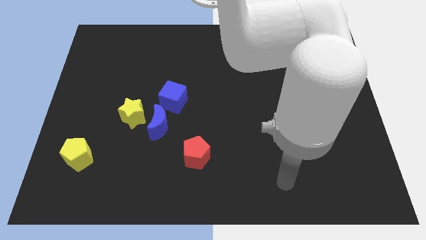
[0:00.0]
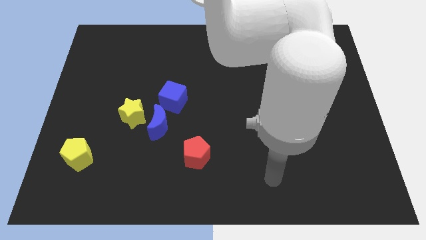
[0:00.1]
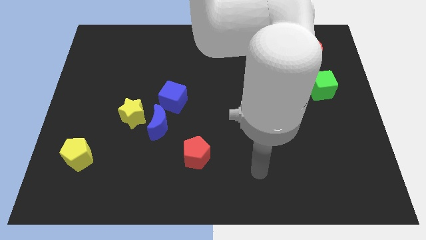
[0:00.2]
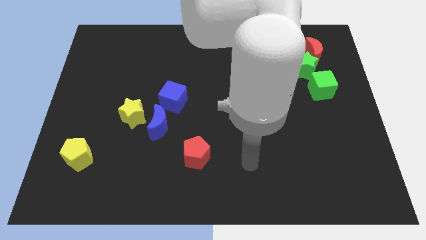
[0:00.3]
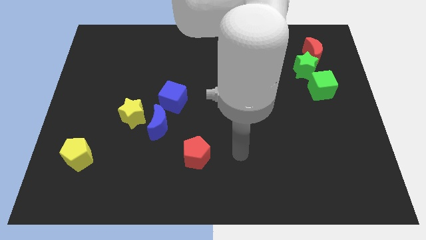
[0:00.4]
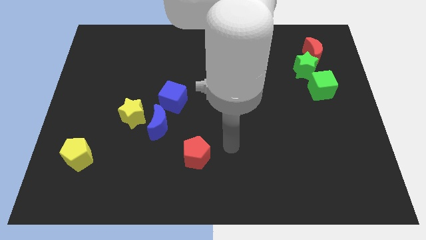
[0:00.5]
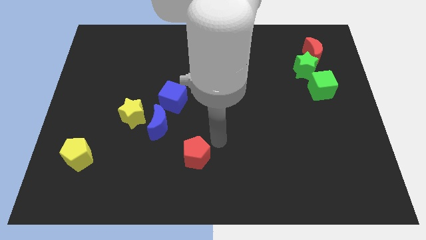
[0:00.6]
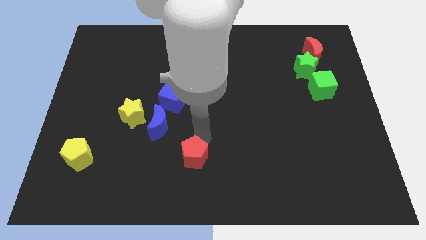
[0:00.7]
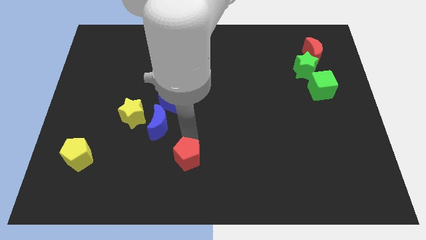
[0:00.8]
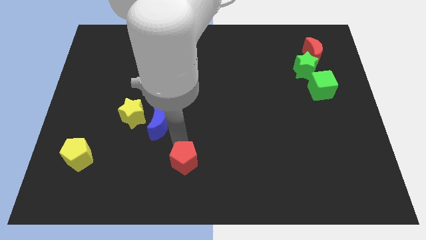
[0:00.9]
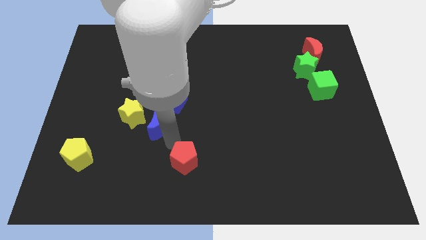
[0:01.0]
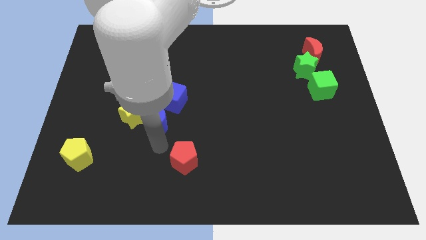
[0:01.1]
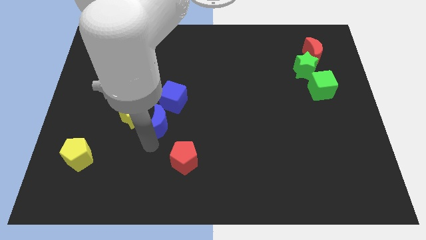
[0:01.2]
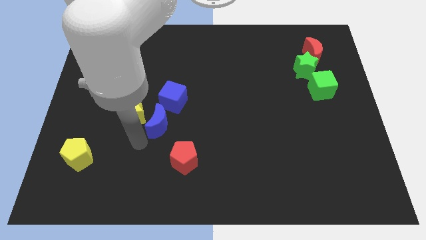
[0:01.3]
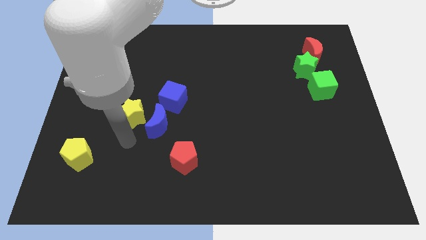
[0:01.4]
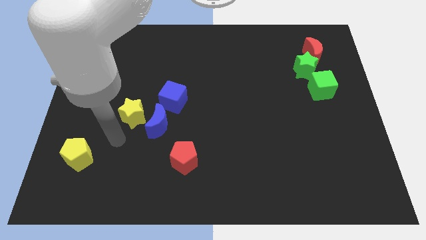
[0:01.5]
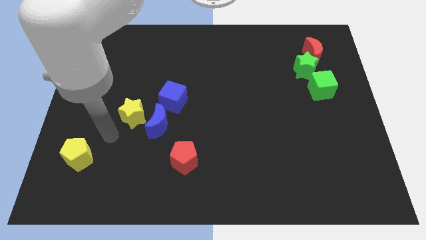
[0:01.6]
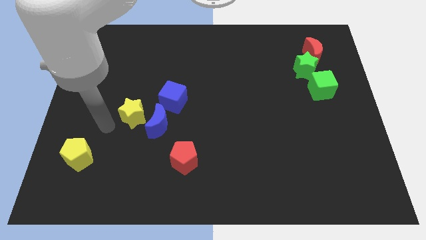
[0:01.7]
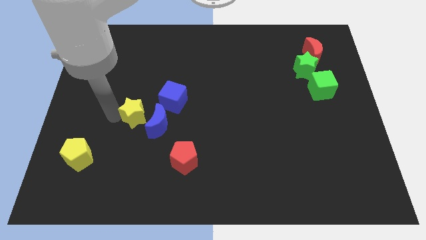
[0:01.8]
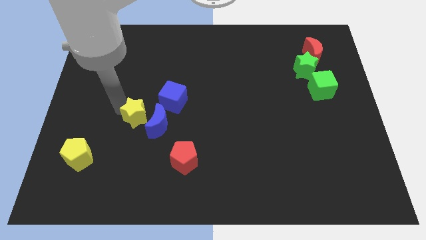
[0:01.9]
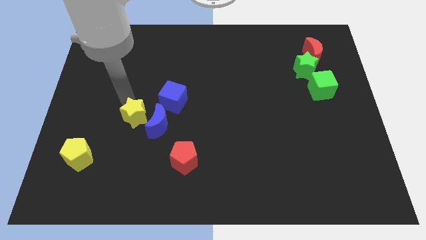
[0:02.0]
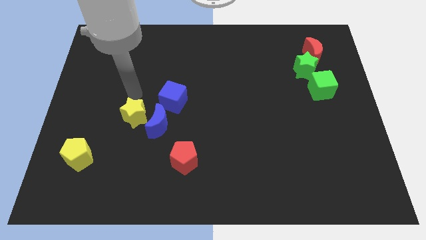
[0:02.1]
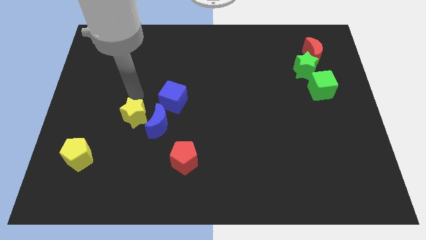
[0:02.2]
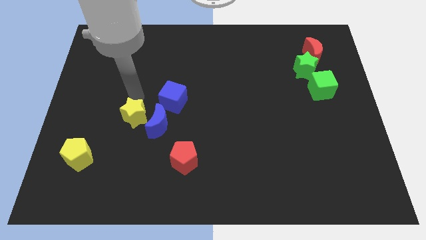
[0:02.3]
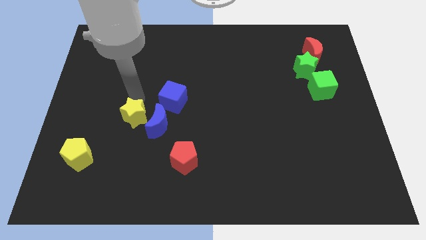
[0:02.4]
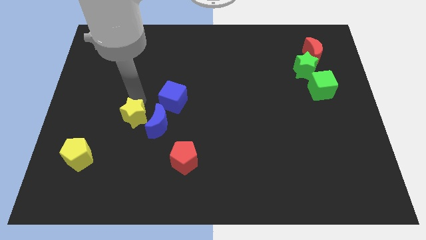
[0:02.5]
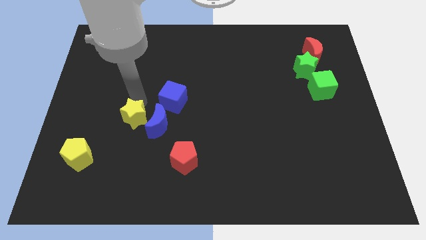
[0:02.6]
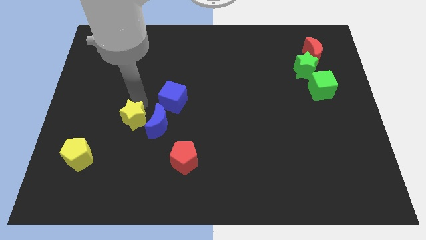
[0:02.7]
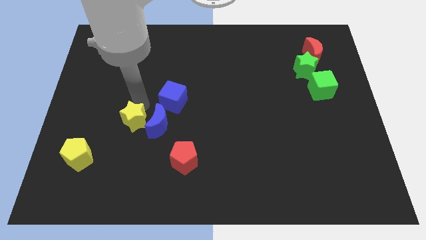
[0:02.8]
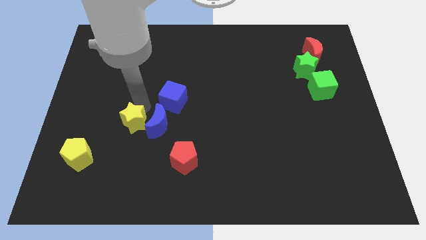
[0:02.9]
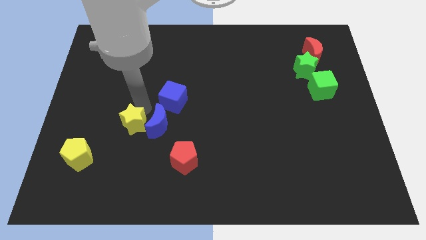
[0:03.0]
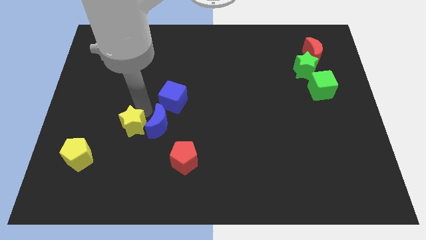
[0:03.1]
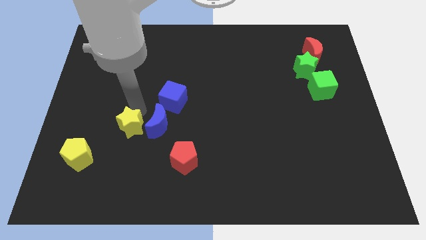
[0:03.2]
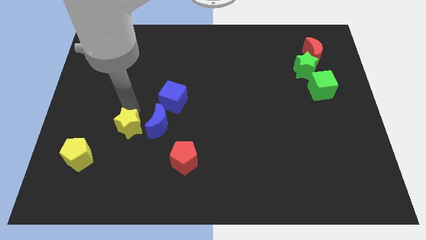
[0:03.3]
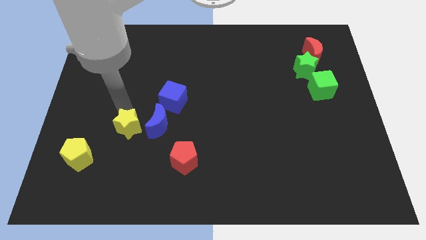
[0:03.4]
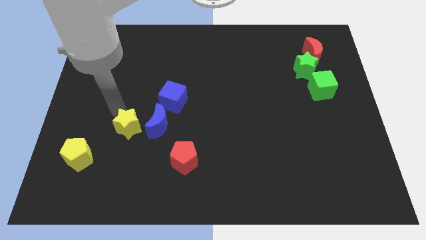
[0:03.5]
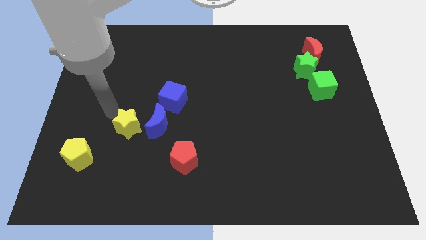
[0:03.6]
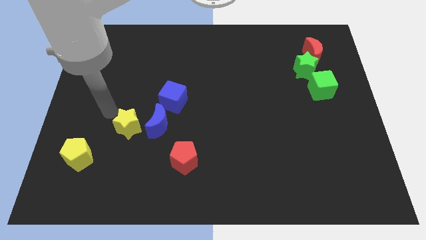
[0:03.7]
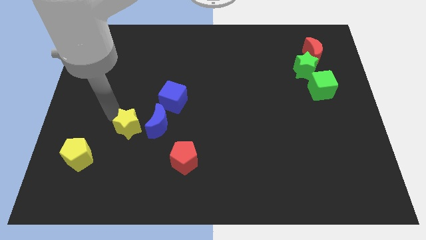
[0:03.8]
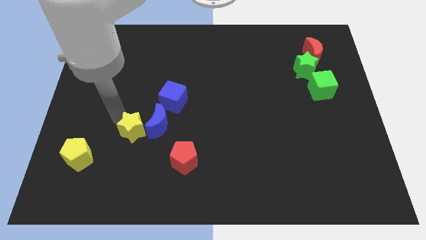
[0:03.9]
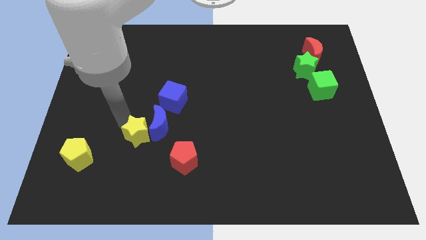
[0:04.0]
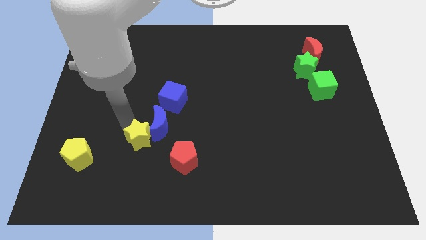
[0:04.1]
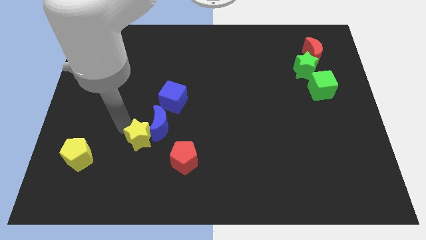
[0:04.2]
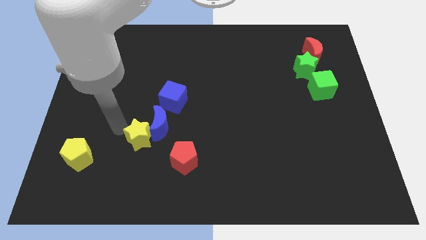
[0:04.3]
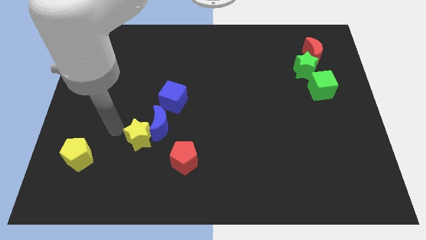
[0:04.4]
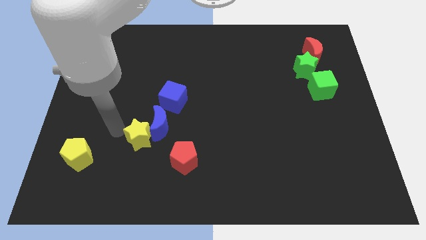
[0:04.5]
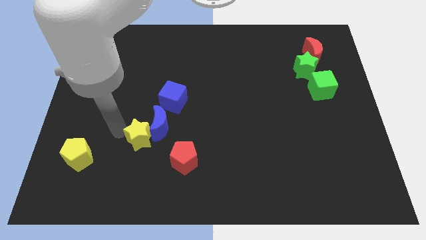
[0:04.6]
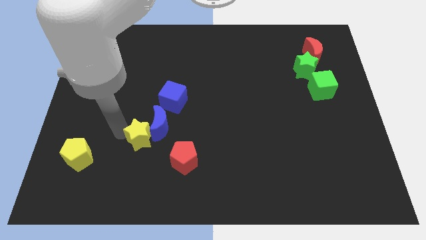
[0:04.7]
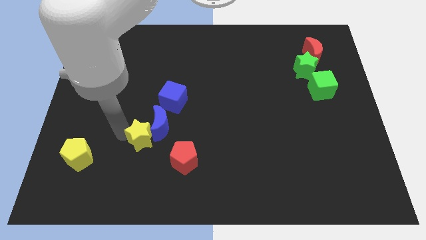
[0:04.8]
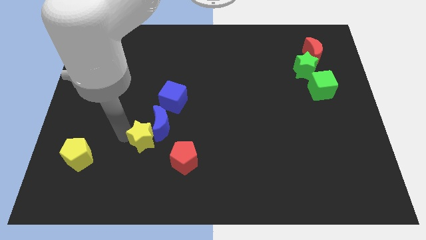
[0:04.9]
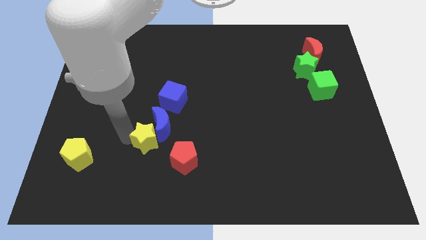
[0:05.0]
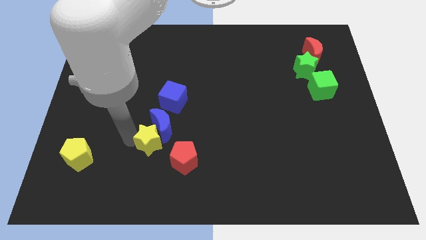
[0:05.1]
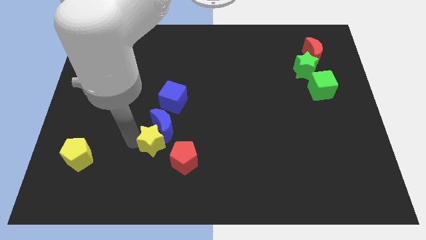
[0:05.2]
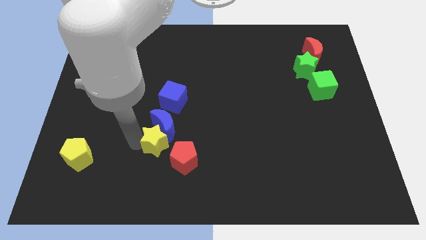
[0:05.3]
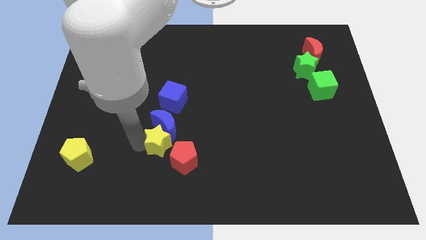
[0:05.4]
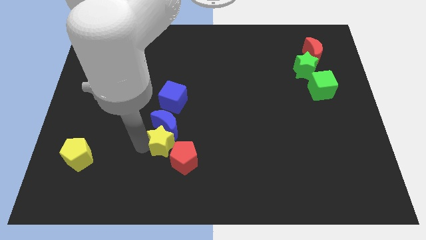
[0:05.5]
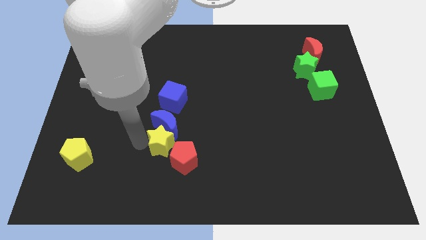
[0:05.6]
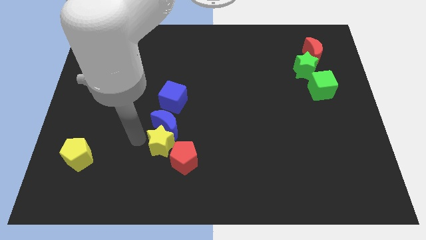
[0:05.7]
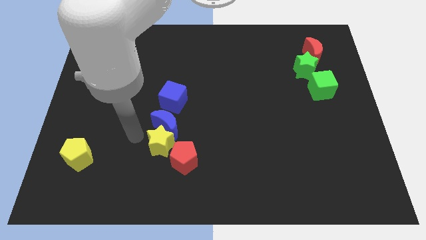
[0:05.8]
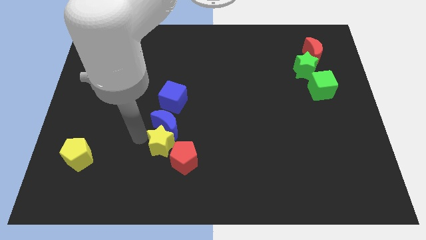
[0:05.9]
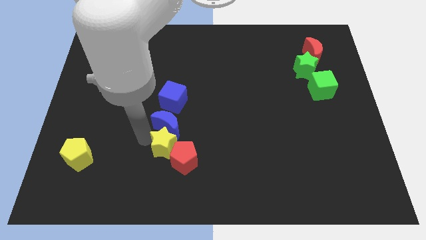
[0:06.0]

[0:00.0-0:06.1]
put the yellow star towards the red pentagon

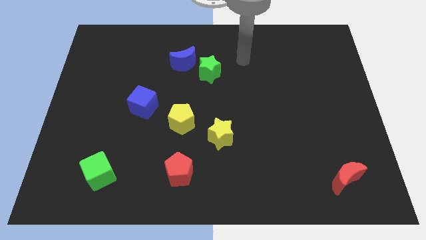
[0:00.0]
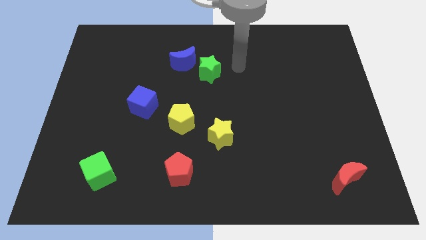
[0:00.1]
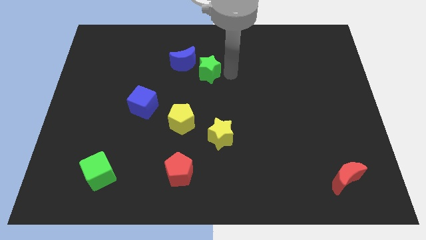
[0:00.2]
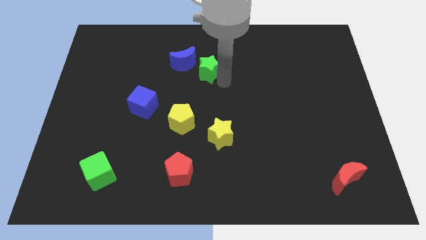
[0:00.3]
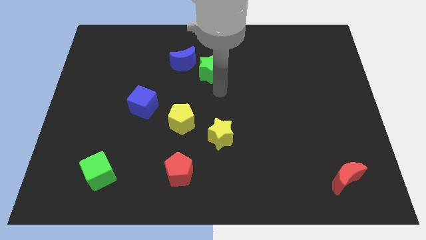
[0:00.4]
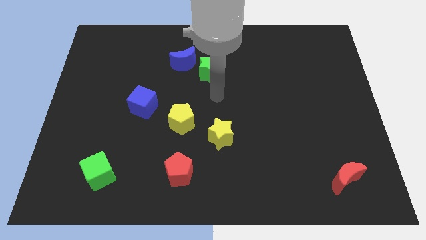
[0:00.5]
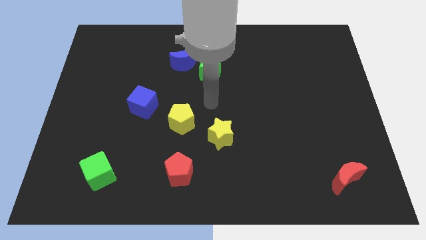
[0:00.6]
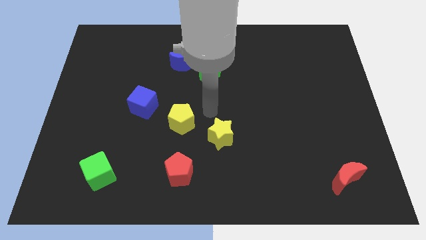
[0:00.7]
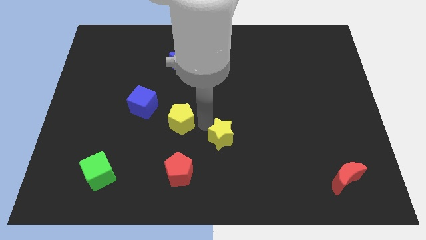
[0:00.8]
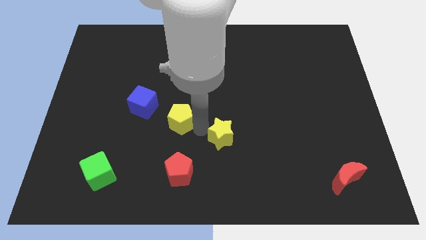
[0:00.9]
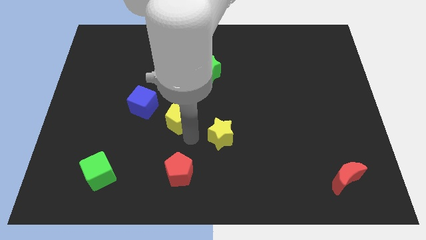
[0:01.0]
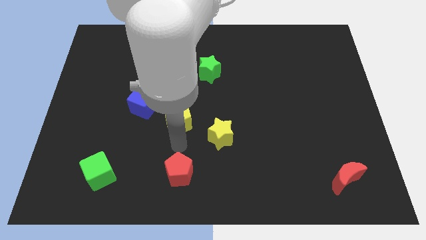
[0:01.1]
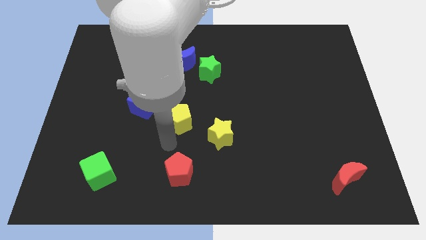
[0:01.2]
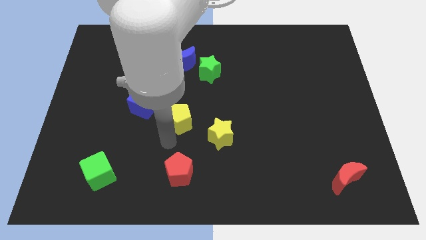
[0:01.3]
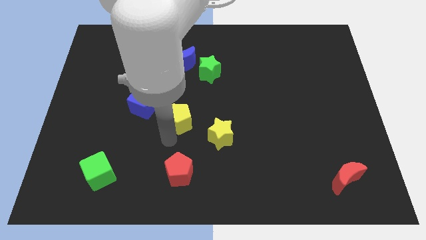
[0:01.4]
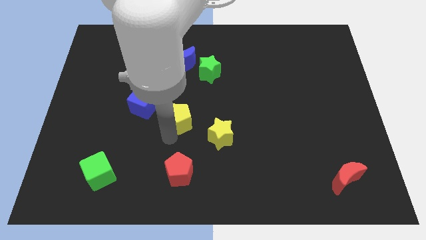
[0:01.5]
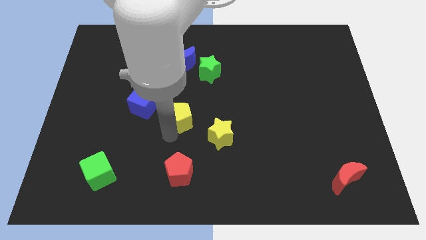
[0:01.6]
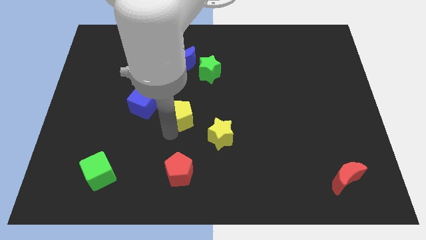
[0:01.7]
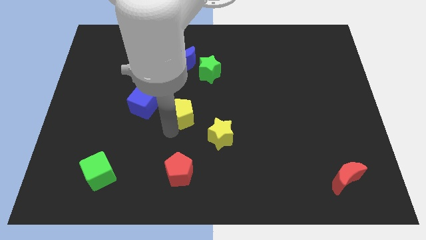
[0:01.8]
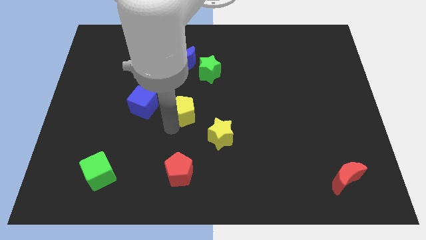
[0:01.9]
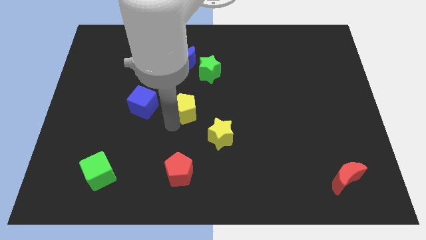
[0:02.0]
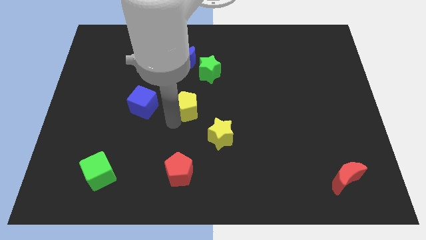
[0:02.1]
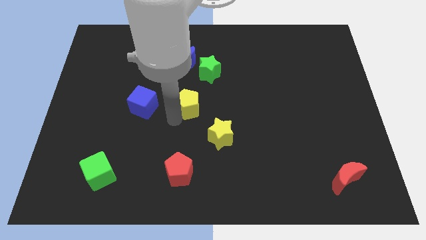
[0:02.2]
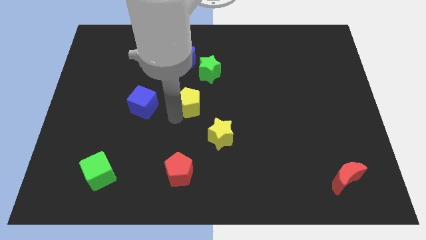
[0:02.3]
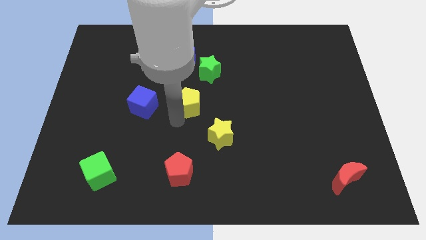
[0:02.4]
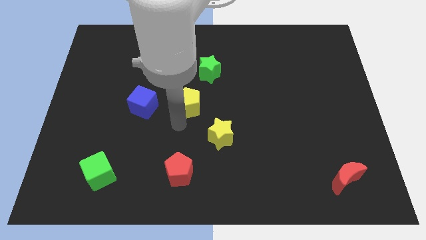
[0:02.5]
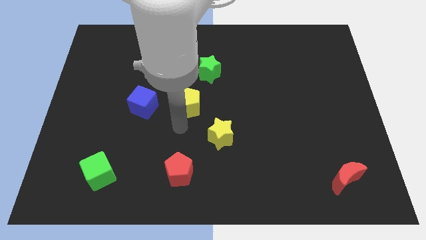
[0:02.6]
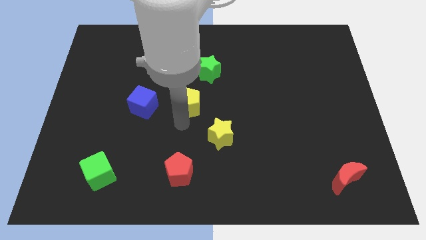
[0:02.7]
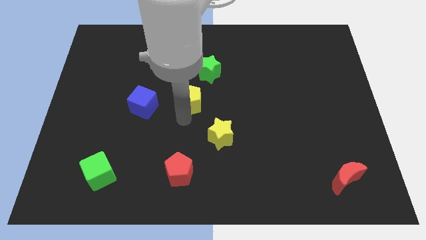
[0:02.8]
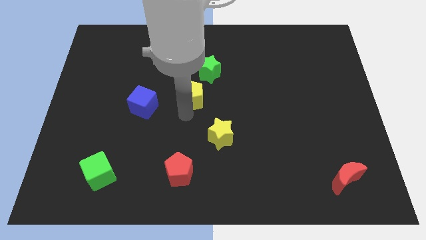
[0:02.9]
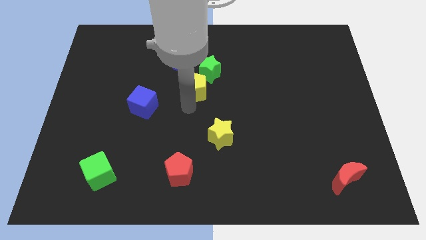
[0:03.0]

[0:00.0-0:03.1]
move the yellow pentagon towards the green star
